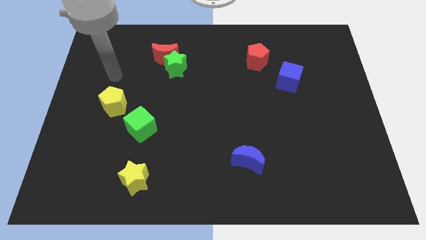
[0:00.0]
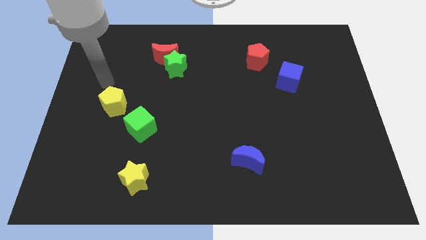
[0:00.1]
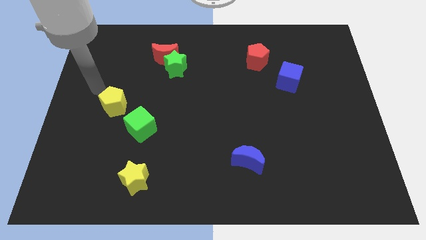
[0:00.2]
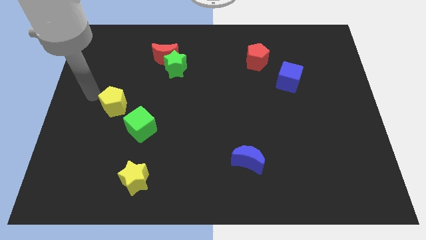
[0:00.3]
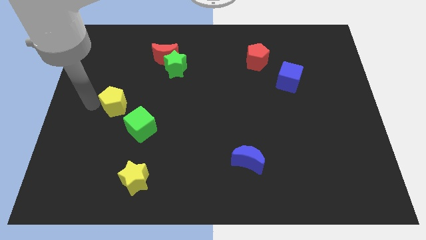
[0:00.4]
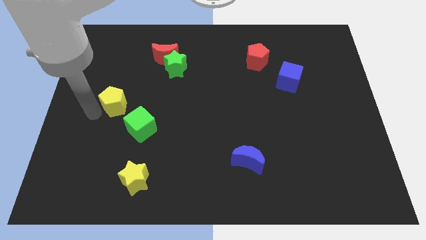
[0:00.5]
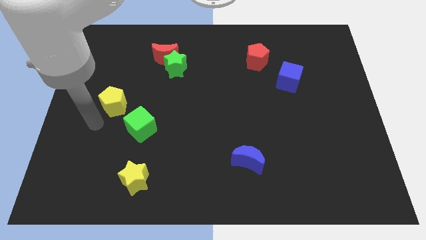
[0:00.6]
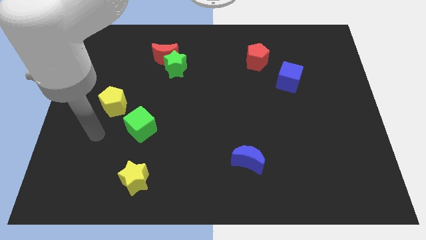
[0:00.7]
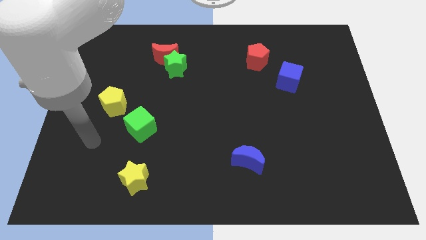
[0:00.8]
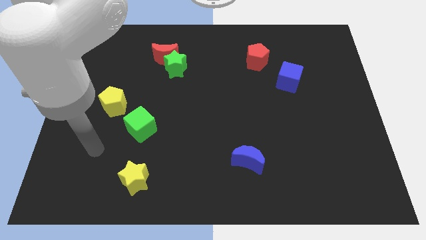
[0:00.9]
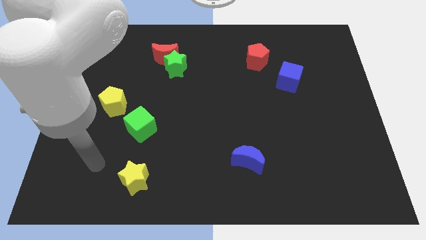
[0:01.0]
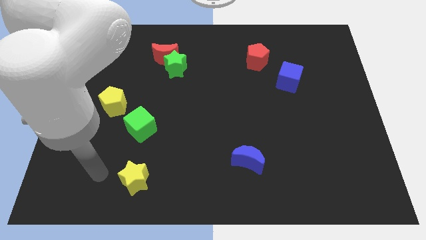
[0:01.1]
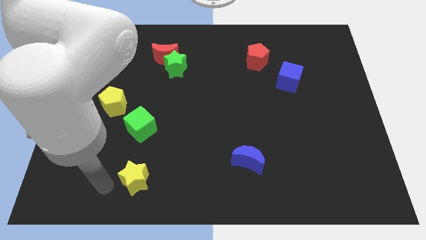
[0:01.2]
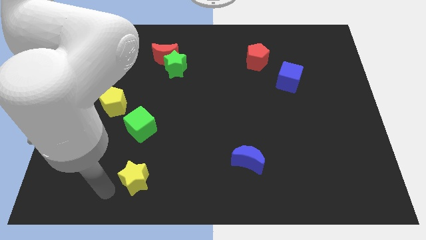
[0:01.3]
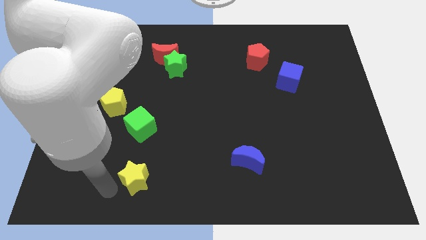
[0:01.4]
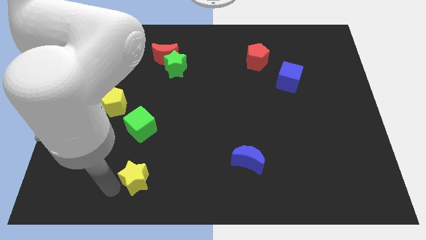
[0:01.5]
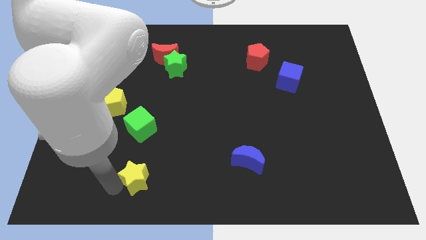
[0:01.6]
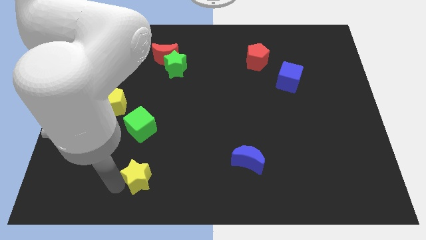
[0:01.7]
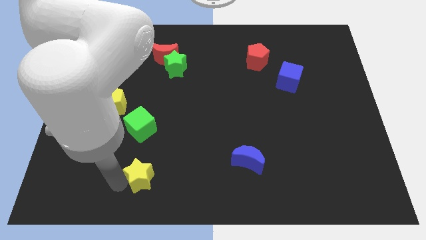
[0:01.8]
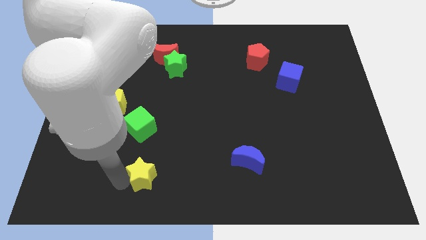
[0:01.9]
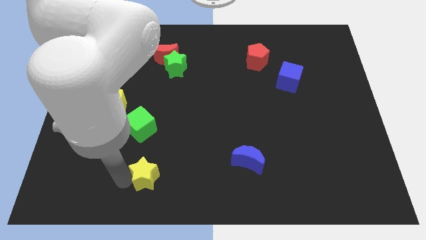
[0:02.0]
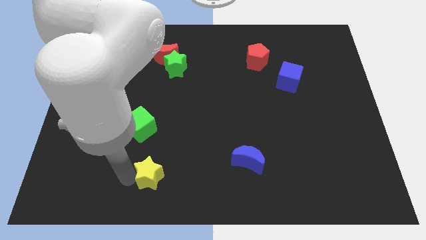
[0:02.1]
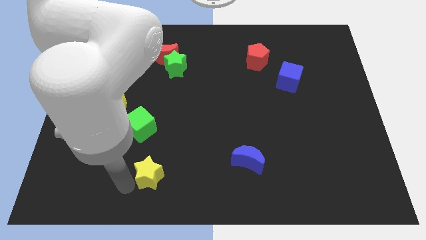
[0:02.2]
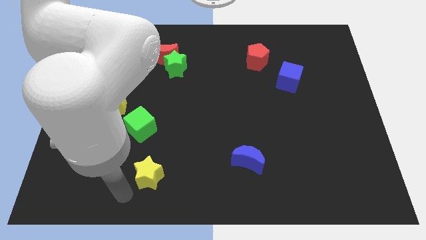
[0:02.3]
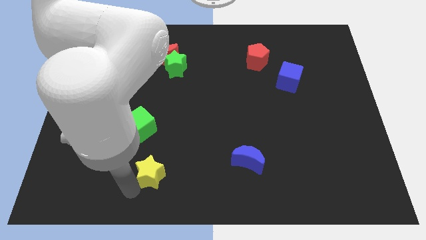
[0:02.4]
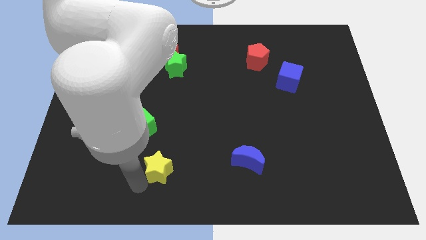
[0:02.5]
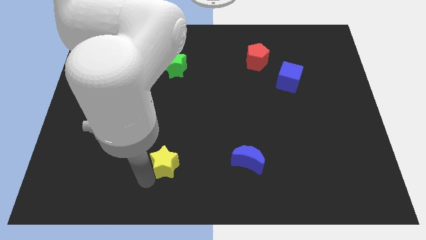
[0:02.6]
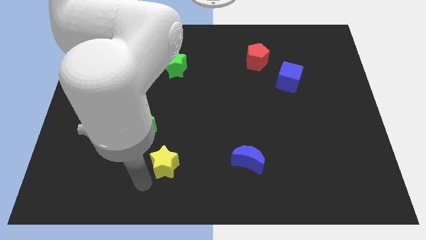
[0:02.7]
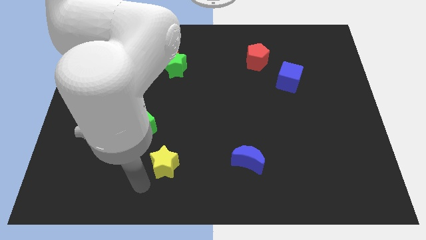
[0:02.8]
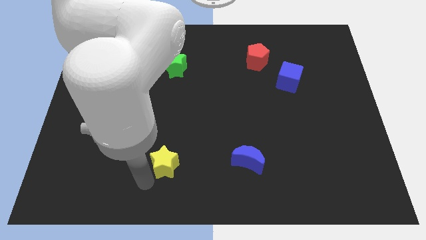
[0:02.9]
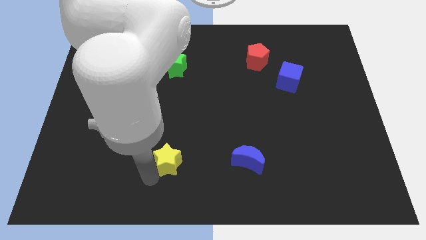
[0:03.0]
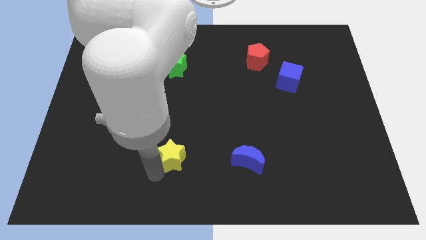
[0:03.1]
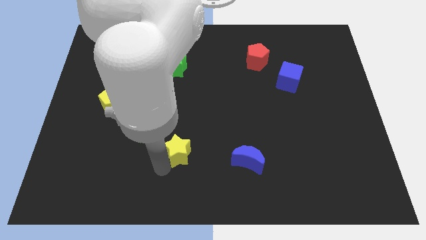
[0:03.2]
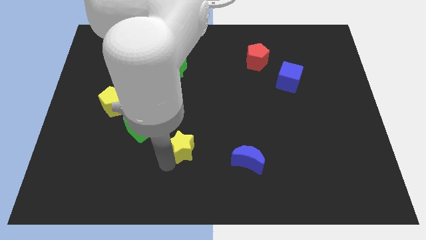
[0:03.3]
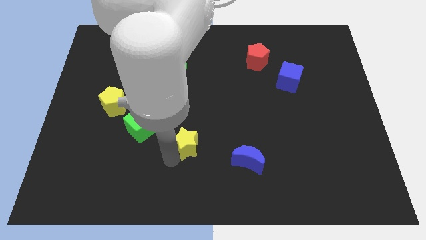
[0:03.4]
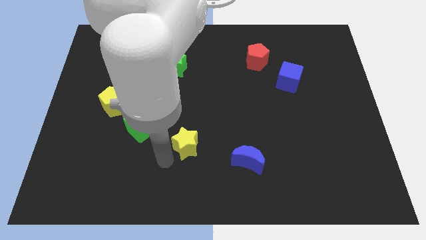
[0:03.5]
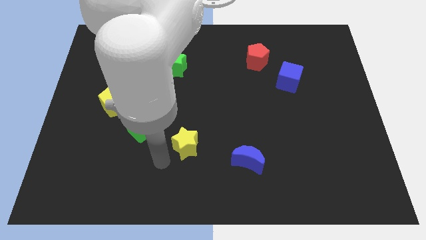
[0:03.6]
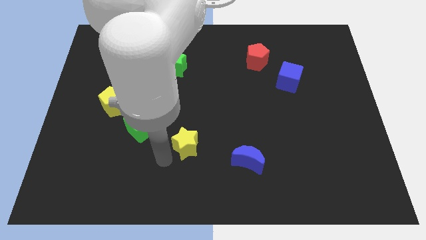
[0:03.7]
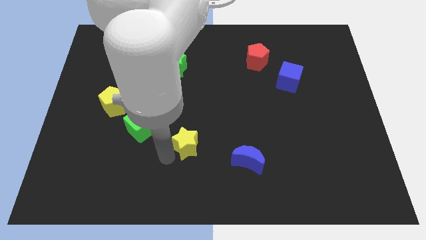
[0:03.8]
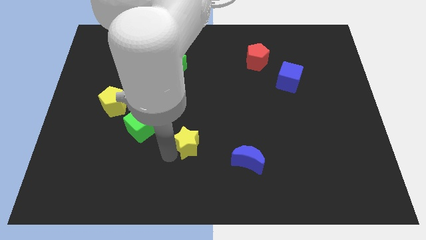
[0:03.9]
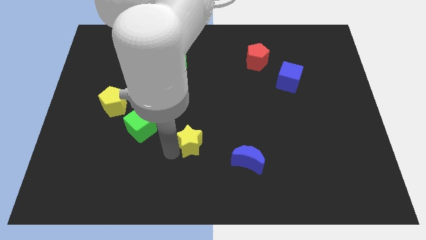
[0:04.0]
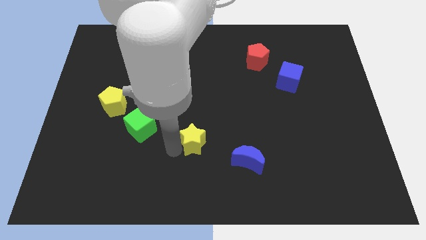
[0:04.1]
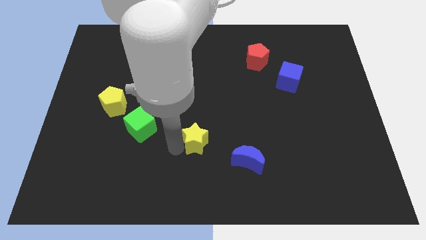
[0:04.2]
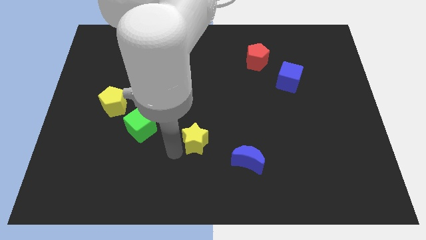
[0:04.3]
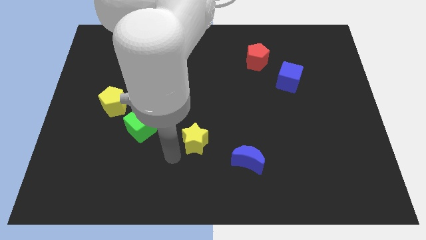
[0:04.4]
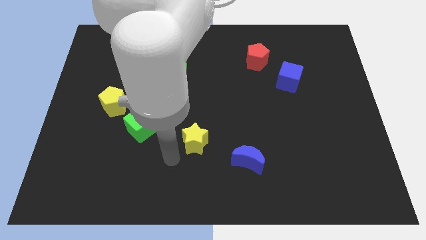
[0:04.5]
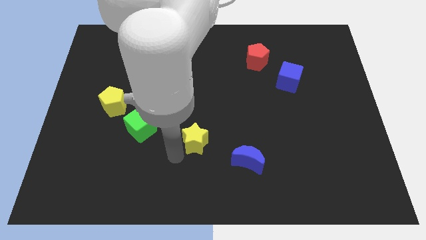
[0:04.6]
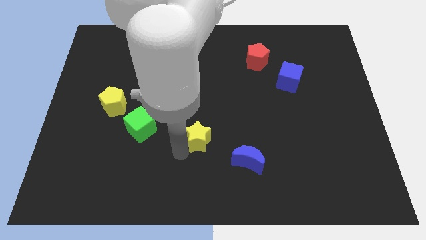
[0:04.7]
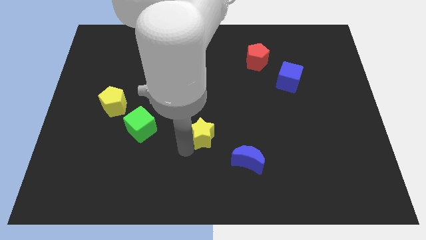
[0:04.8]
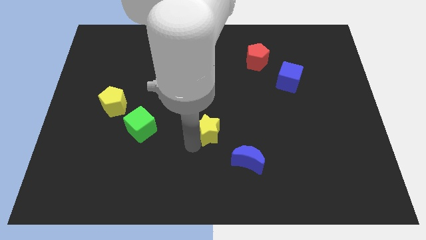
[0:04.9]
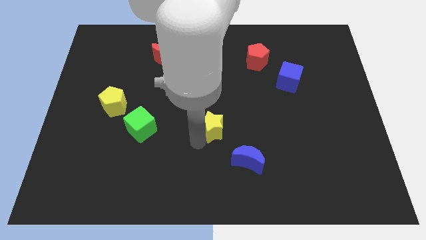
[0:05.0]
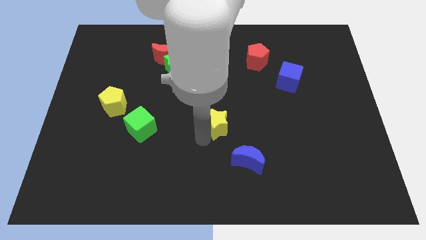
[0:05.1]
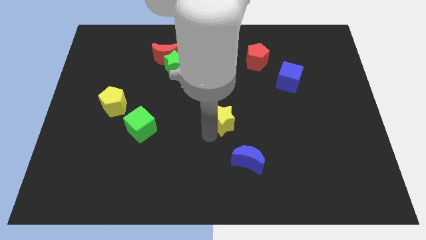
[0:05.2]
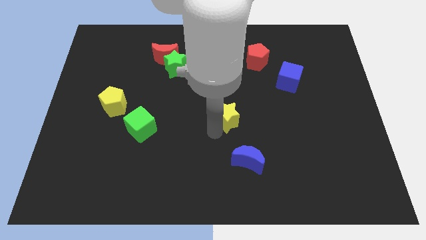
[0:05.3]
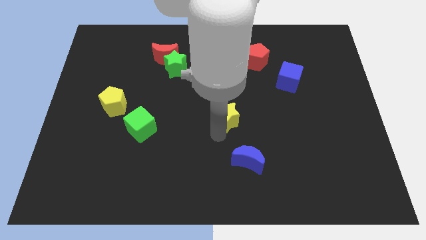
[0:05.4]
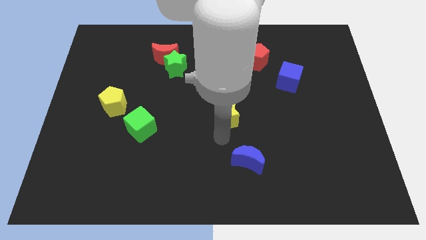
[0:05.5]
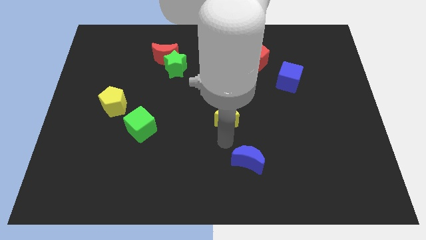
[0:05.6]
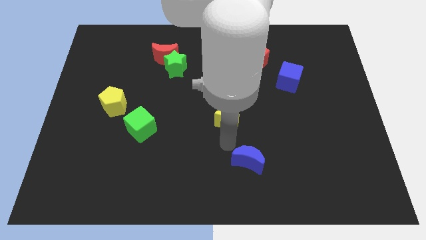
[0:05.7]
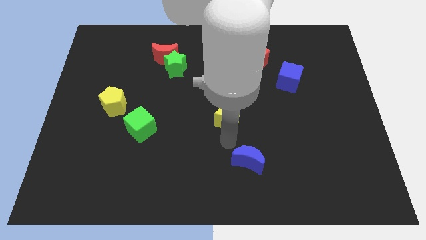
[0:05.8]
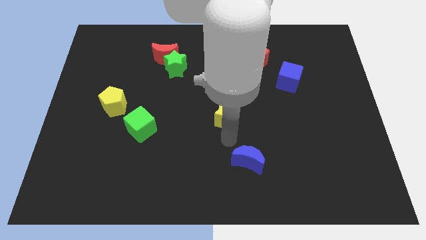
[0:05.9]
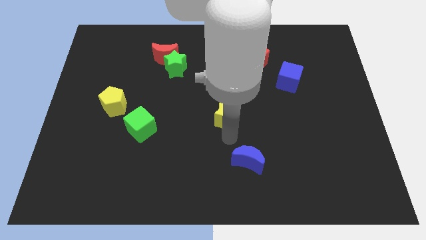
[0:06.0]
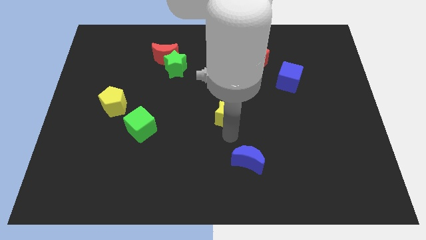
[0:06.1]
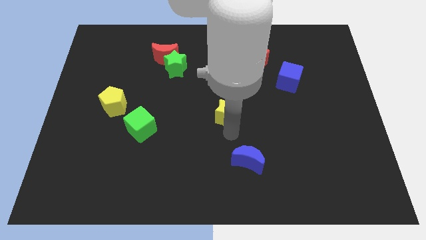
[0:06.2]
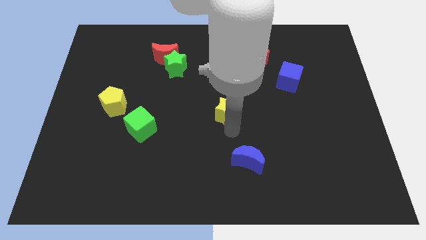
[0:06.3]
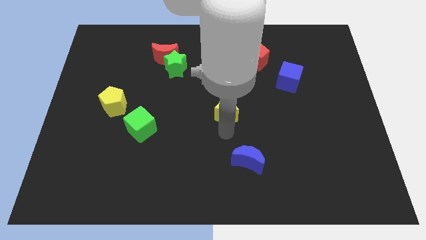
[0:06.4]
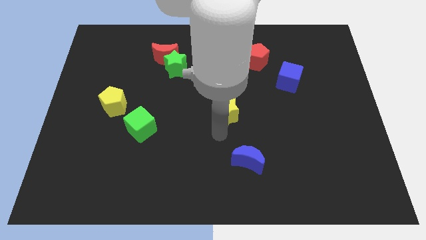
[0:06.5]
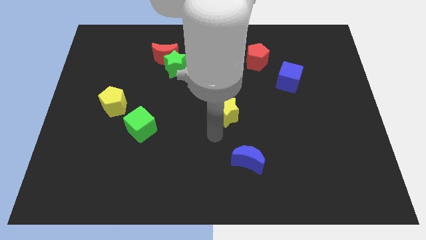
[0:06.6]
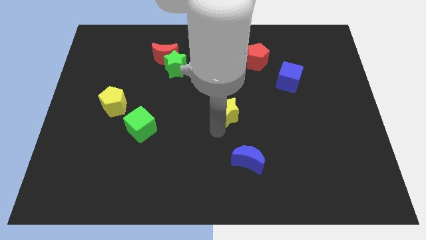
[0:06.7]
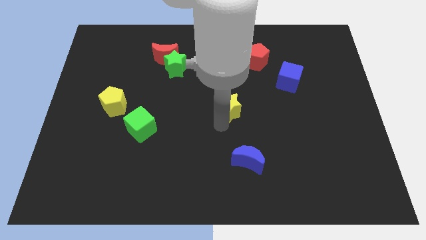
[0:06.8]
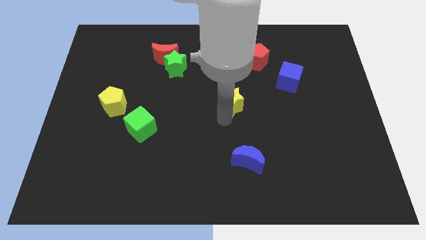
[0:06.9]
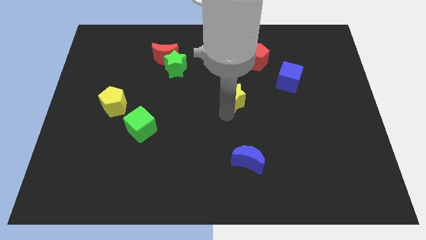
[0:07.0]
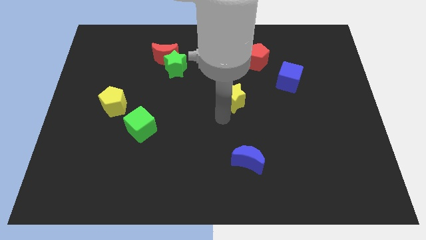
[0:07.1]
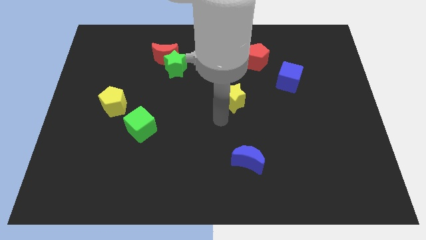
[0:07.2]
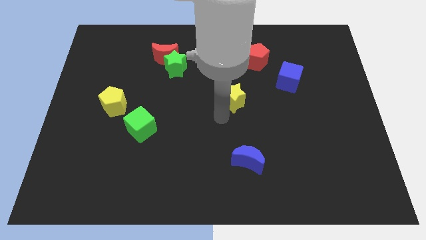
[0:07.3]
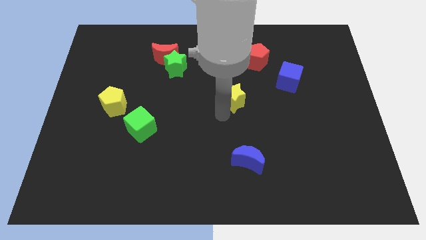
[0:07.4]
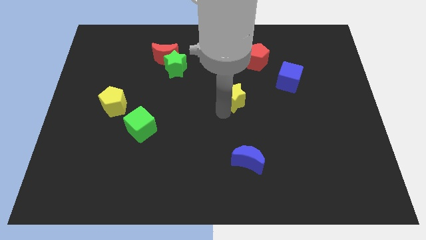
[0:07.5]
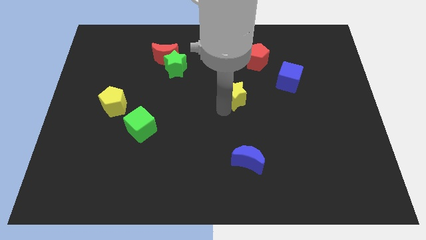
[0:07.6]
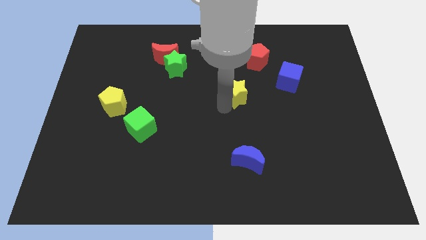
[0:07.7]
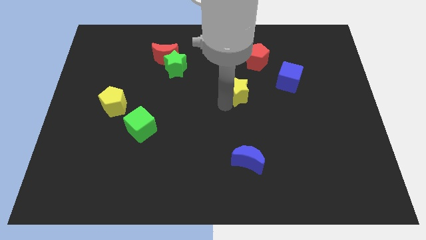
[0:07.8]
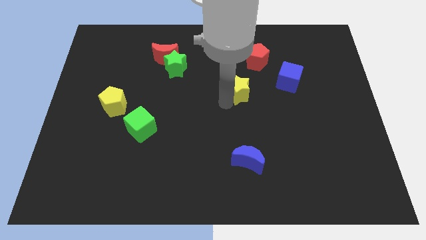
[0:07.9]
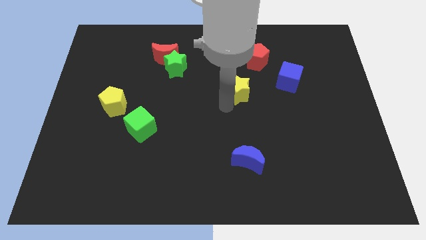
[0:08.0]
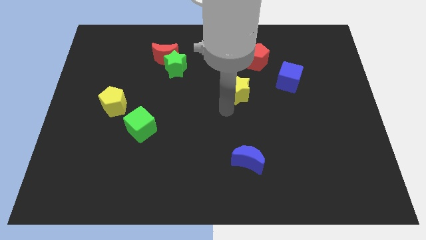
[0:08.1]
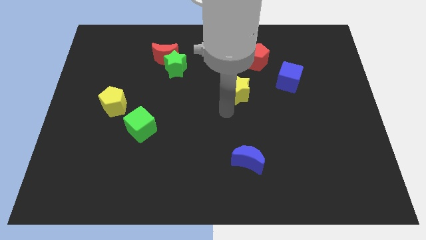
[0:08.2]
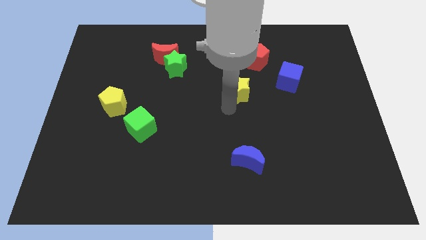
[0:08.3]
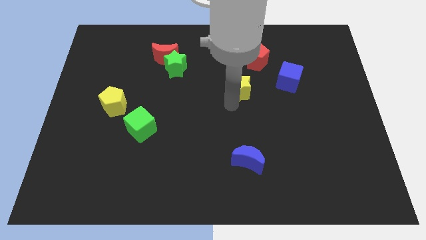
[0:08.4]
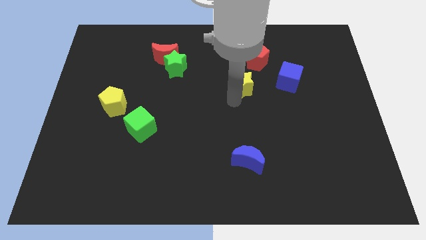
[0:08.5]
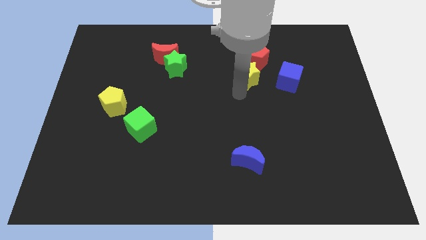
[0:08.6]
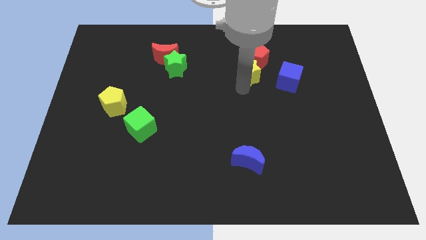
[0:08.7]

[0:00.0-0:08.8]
slide the yellow star to the red pentagon
